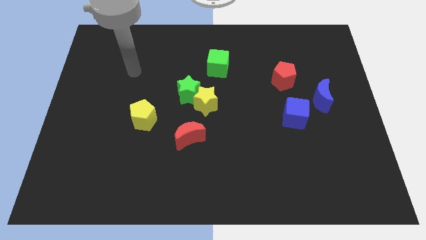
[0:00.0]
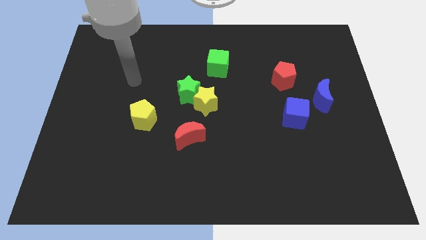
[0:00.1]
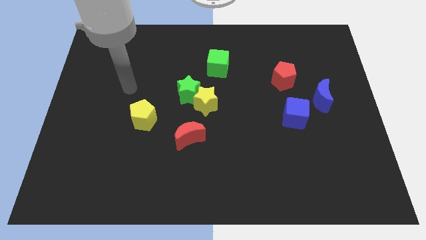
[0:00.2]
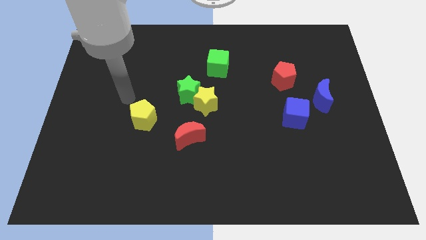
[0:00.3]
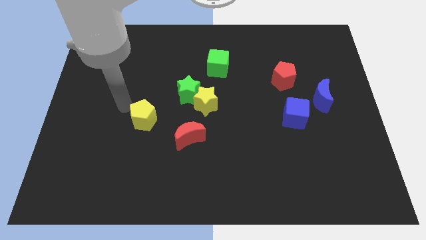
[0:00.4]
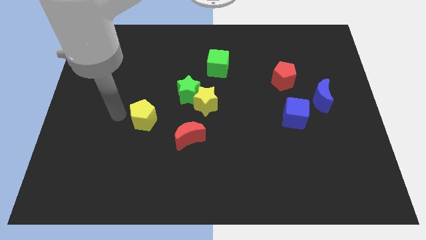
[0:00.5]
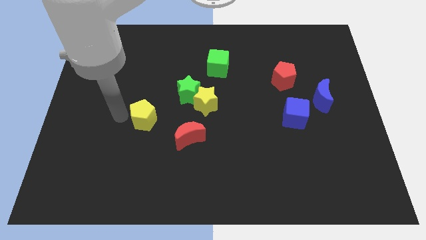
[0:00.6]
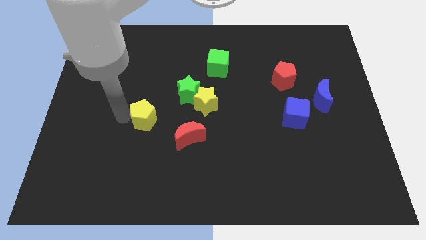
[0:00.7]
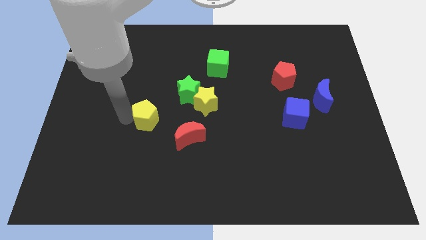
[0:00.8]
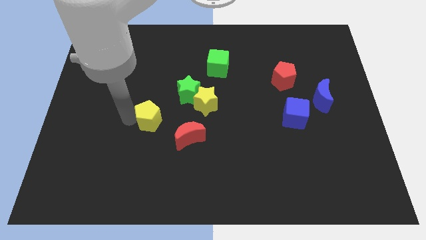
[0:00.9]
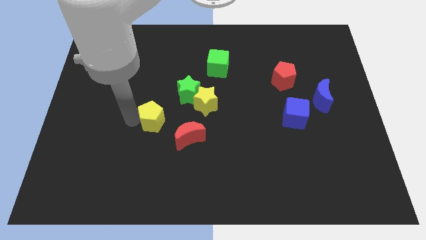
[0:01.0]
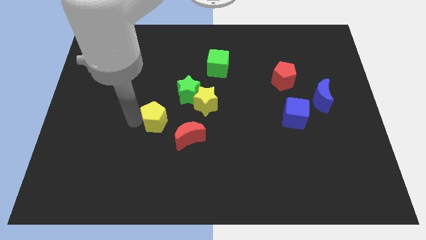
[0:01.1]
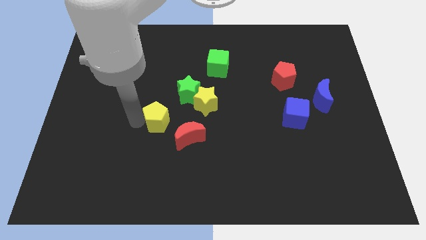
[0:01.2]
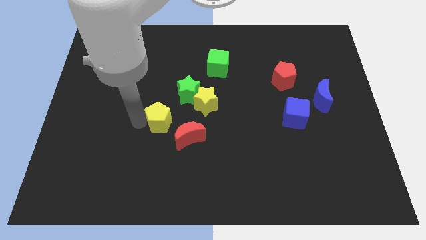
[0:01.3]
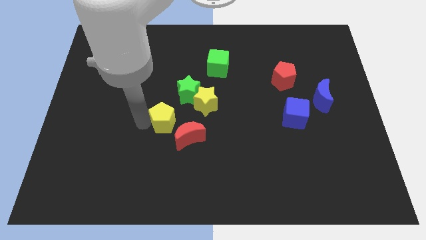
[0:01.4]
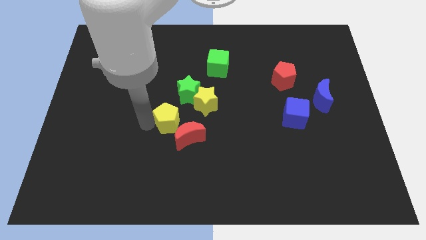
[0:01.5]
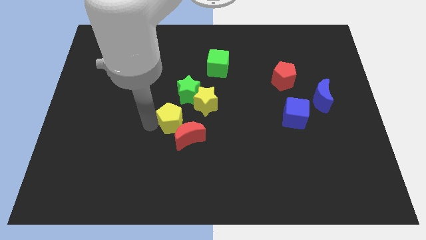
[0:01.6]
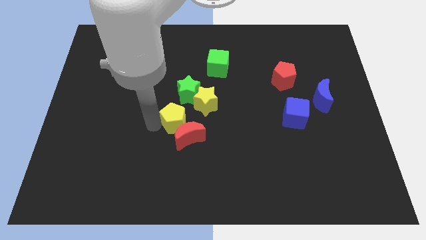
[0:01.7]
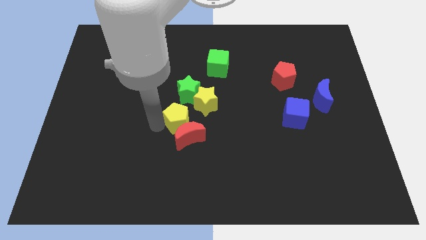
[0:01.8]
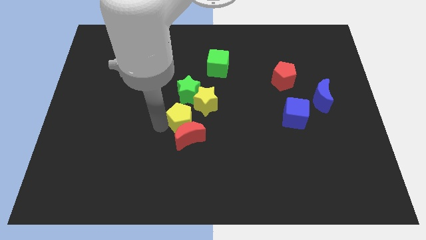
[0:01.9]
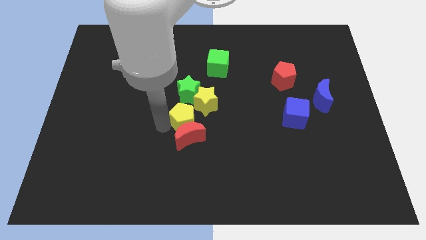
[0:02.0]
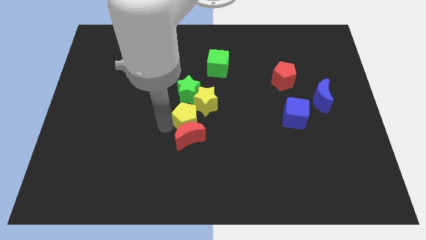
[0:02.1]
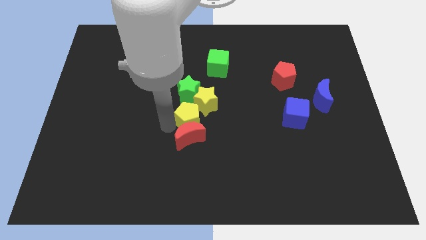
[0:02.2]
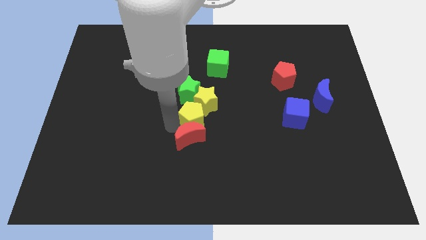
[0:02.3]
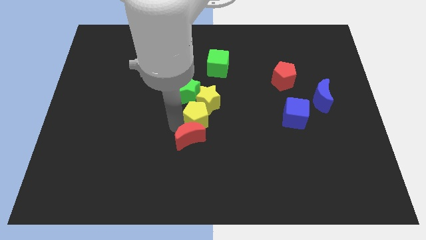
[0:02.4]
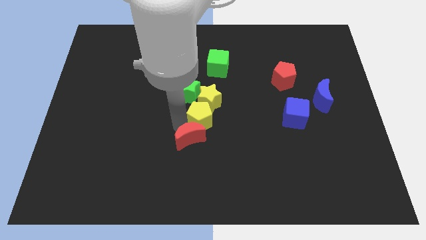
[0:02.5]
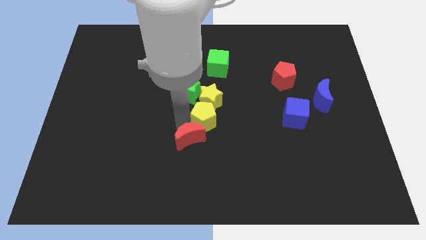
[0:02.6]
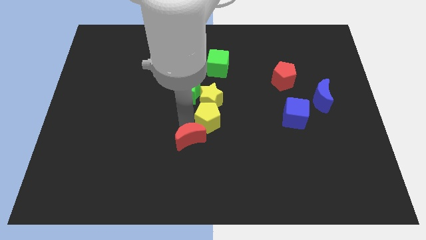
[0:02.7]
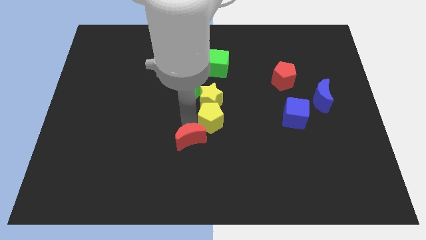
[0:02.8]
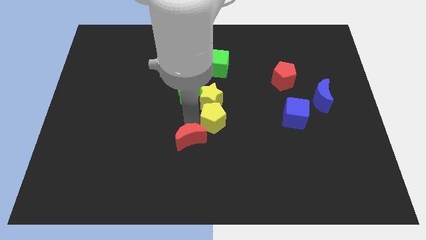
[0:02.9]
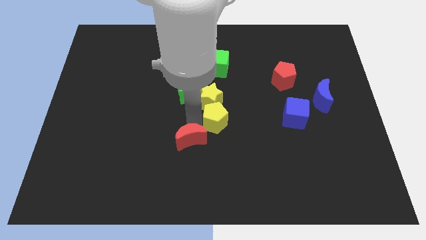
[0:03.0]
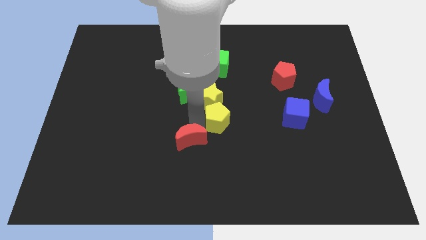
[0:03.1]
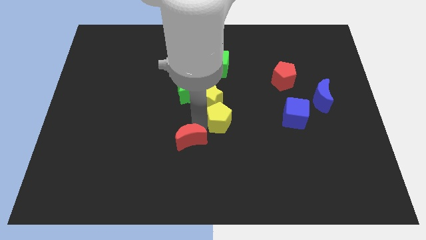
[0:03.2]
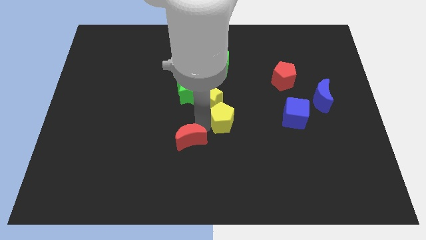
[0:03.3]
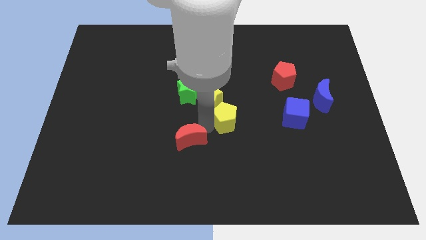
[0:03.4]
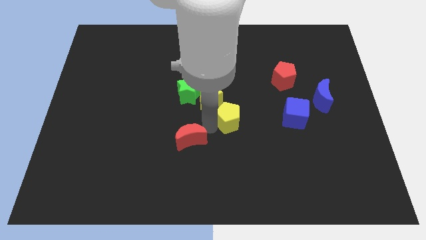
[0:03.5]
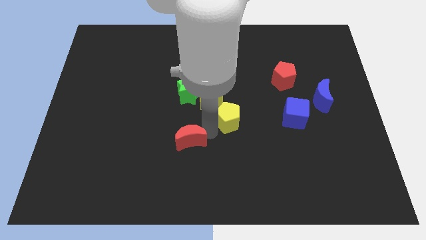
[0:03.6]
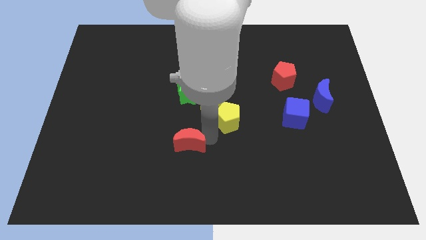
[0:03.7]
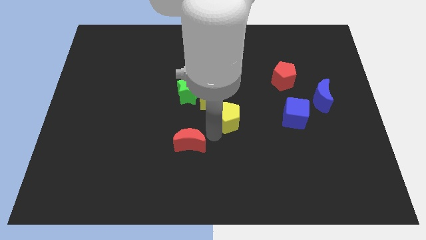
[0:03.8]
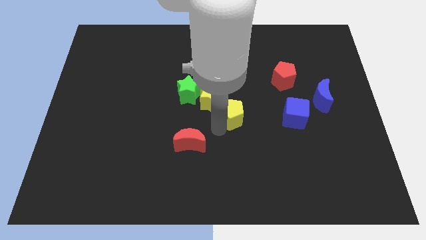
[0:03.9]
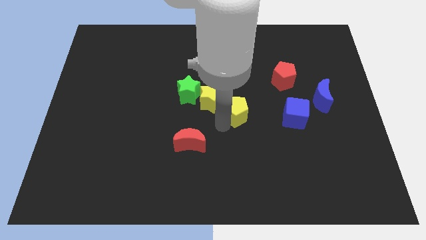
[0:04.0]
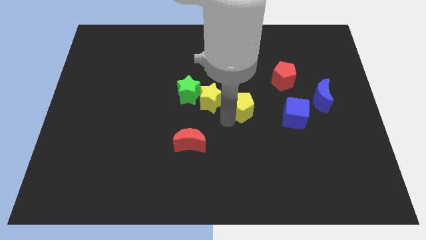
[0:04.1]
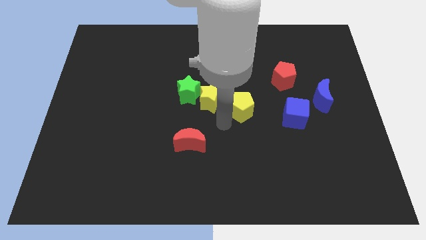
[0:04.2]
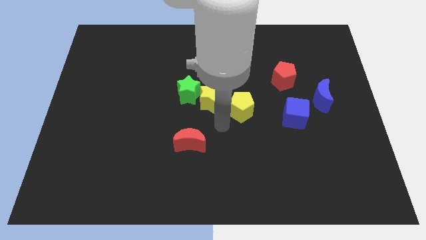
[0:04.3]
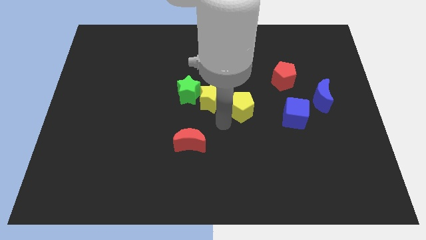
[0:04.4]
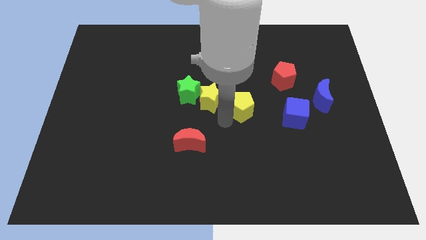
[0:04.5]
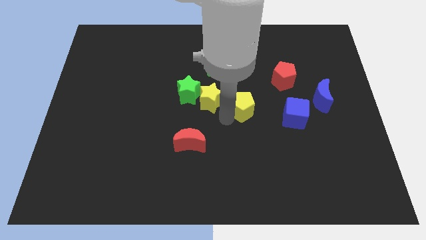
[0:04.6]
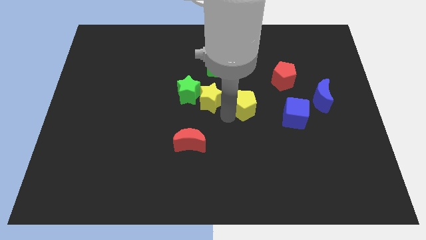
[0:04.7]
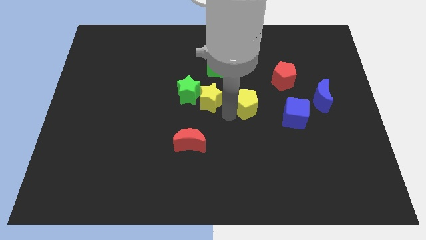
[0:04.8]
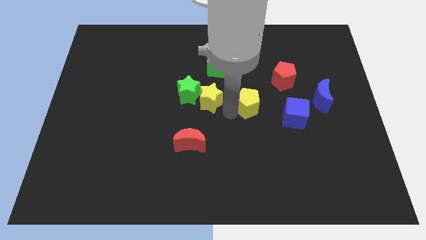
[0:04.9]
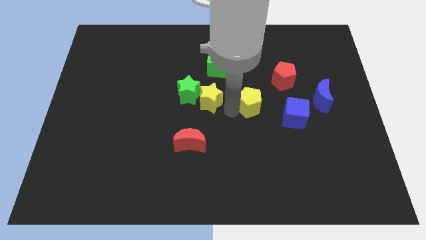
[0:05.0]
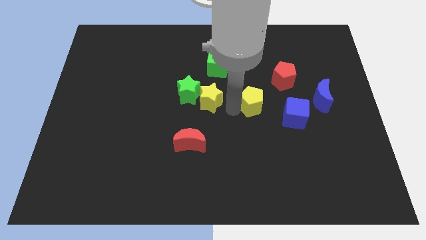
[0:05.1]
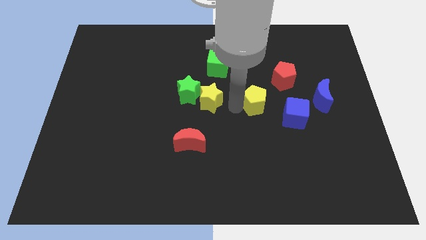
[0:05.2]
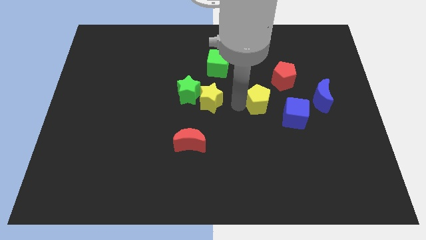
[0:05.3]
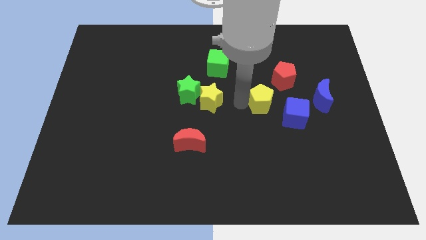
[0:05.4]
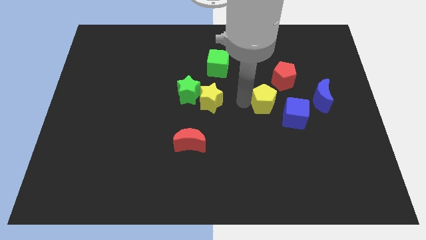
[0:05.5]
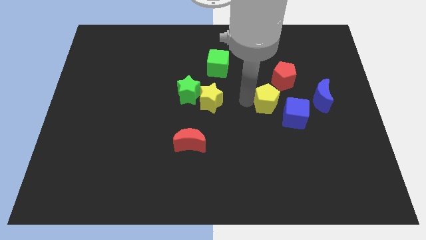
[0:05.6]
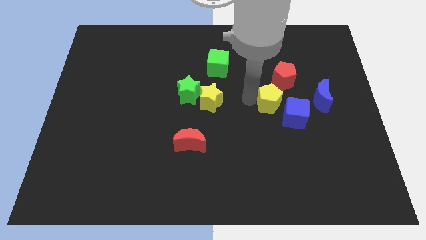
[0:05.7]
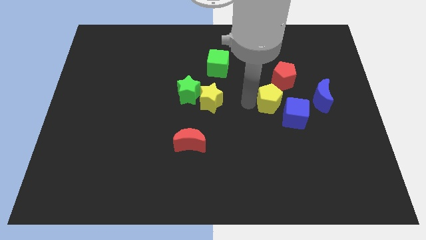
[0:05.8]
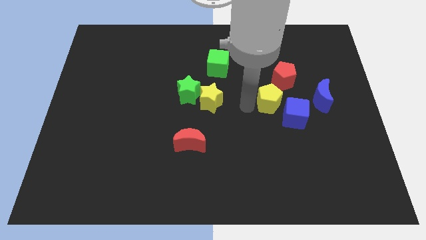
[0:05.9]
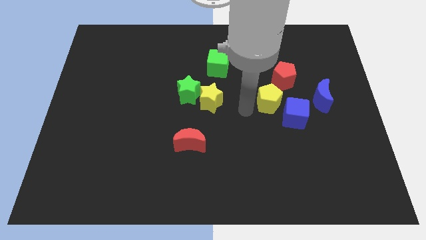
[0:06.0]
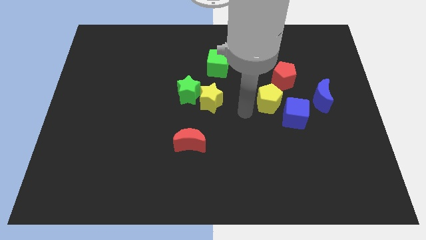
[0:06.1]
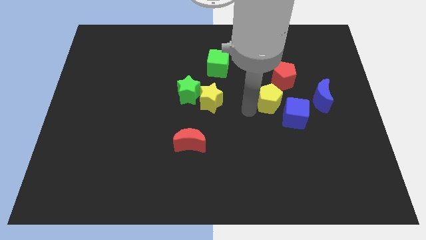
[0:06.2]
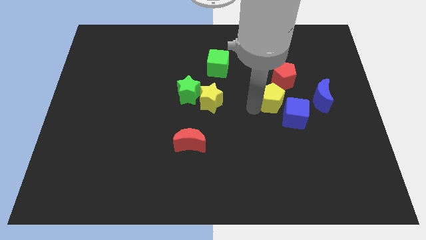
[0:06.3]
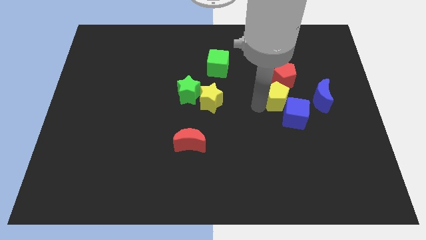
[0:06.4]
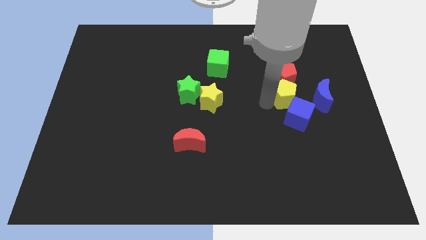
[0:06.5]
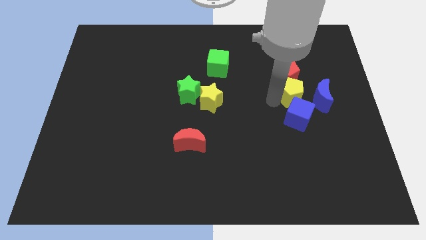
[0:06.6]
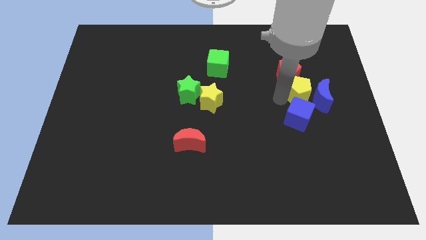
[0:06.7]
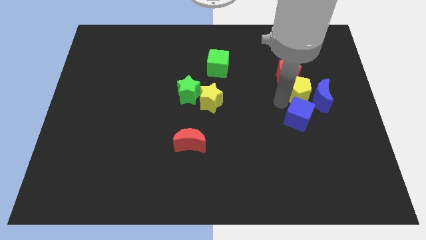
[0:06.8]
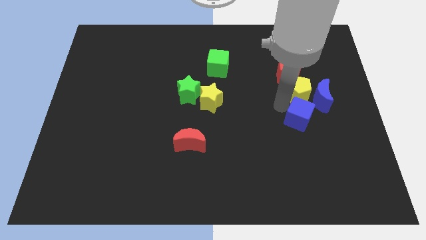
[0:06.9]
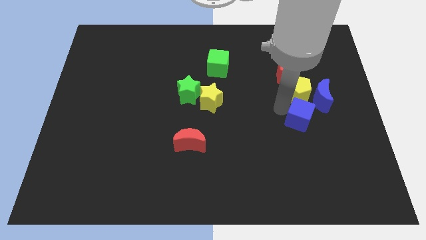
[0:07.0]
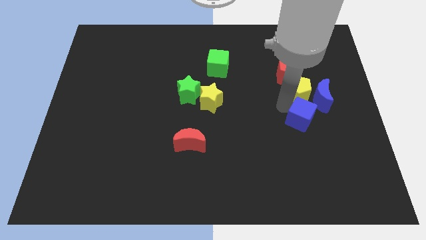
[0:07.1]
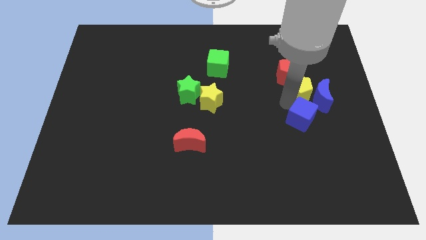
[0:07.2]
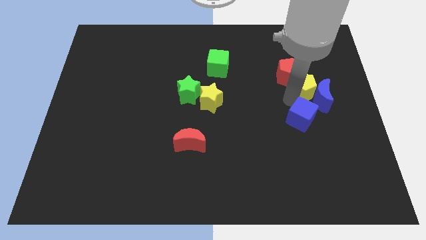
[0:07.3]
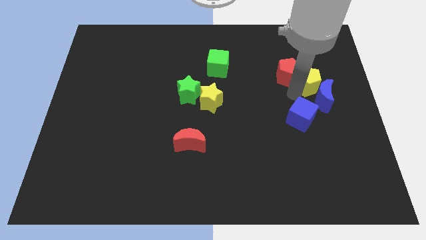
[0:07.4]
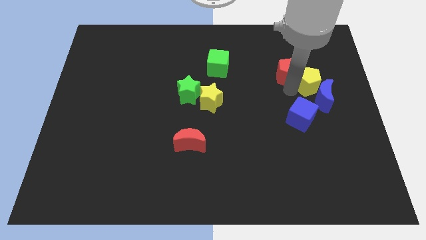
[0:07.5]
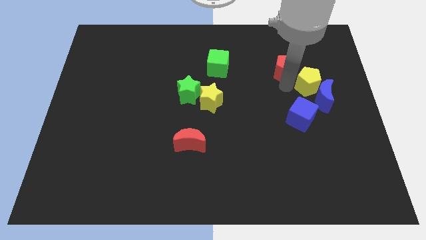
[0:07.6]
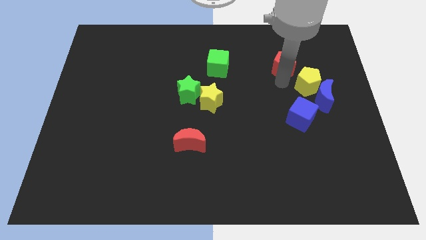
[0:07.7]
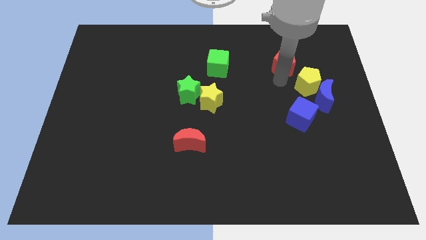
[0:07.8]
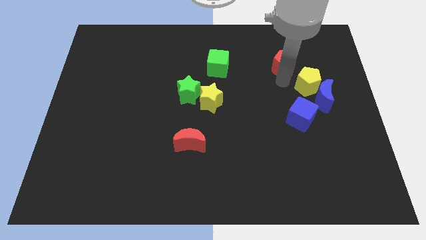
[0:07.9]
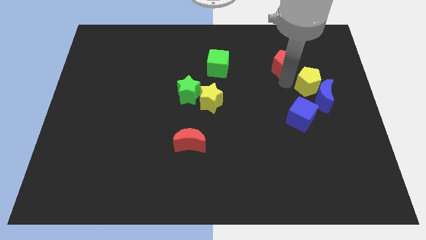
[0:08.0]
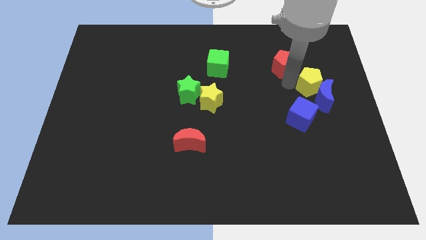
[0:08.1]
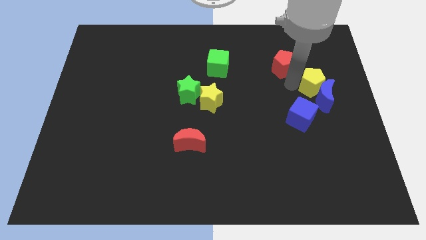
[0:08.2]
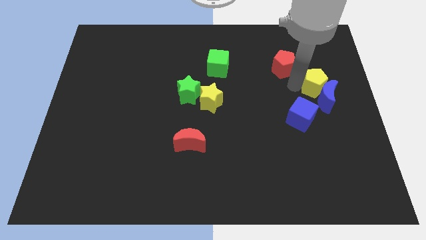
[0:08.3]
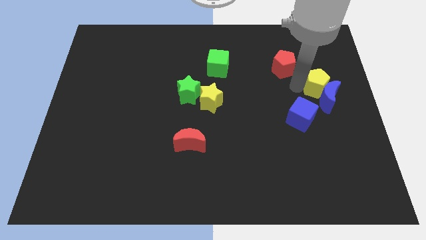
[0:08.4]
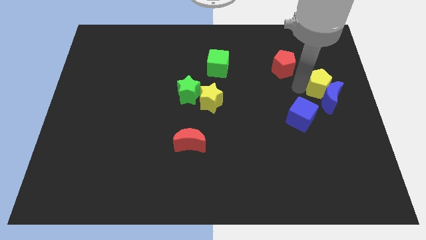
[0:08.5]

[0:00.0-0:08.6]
slide the yellow pentagon to the right side of the board
